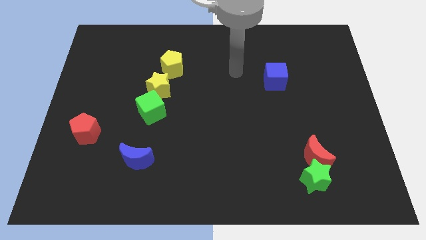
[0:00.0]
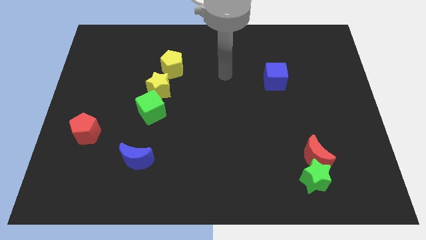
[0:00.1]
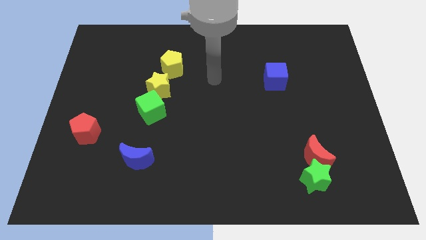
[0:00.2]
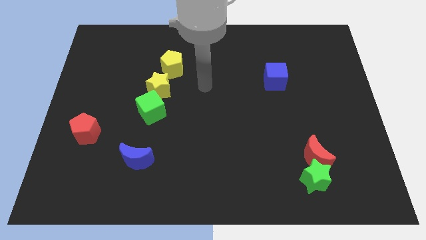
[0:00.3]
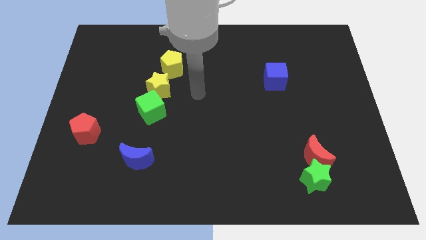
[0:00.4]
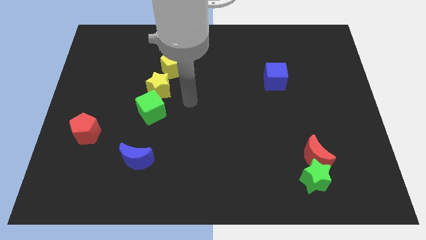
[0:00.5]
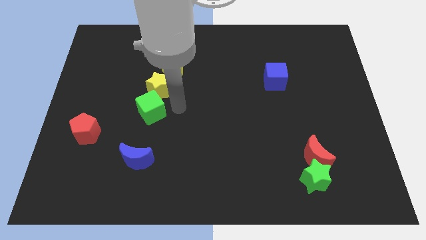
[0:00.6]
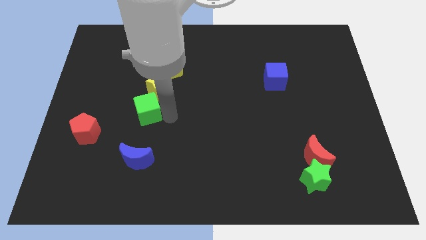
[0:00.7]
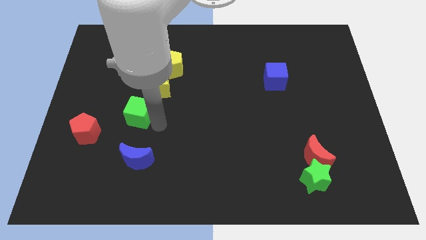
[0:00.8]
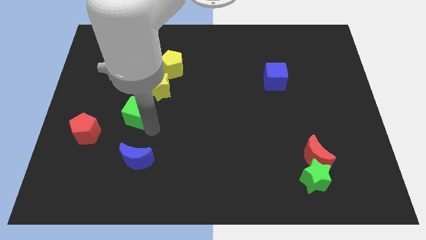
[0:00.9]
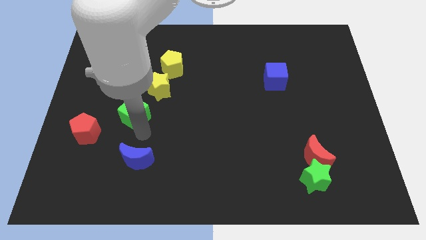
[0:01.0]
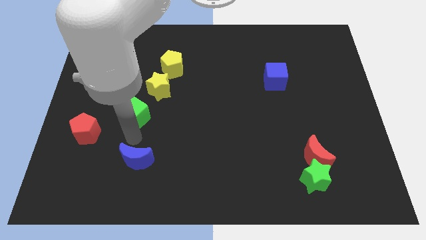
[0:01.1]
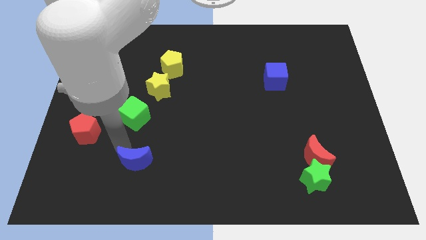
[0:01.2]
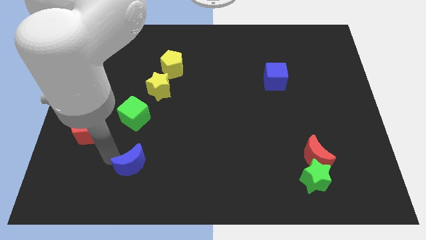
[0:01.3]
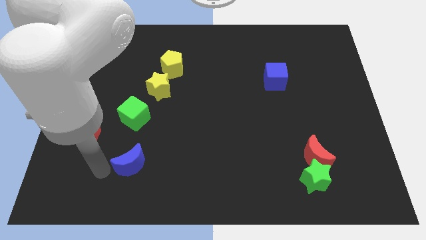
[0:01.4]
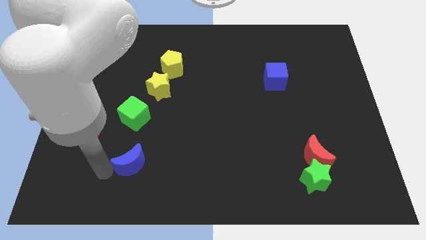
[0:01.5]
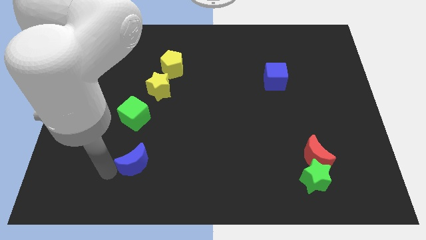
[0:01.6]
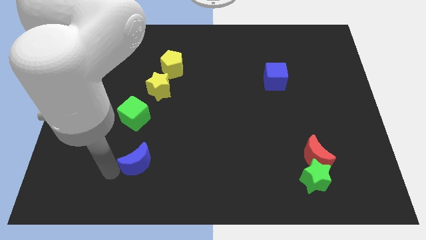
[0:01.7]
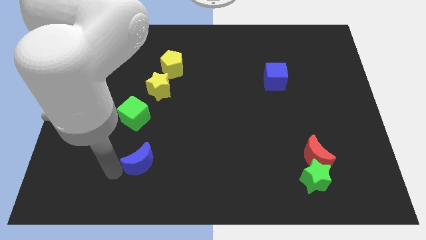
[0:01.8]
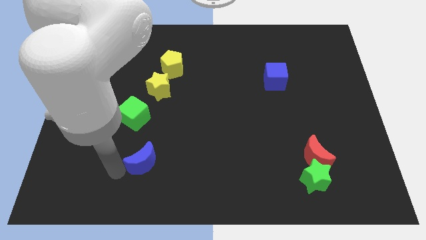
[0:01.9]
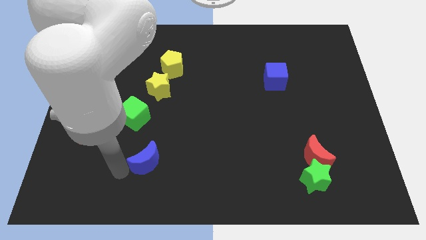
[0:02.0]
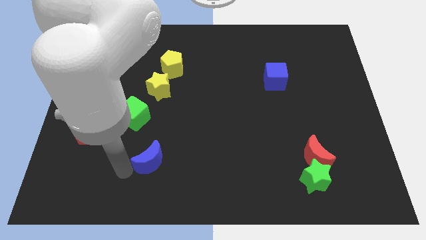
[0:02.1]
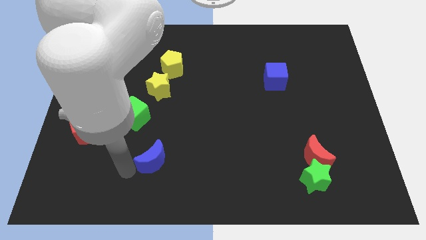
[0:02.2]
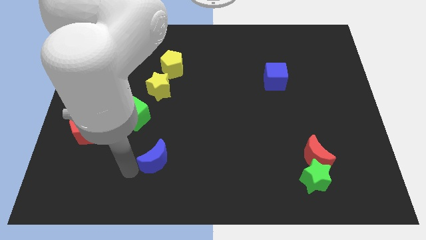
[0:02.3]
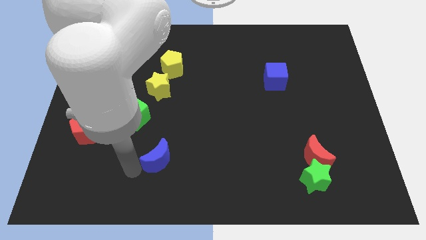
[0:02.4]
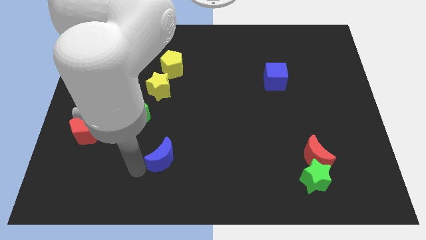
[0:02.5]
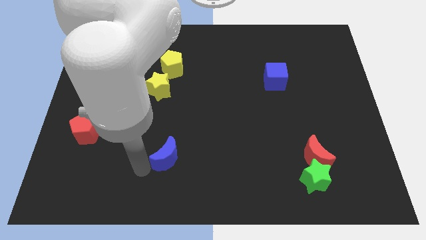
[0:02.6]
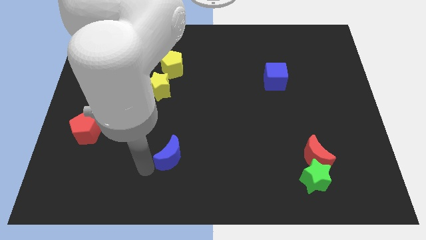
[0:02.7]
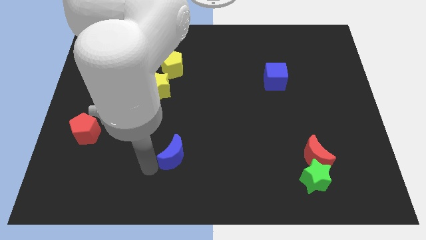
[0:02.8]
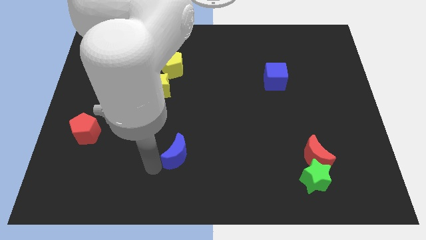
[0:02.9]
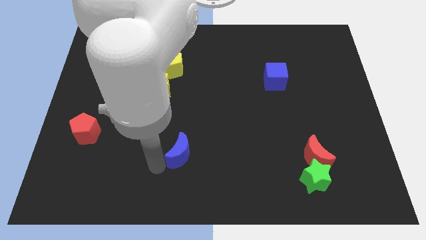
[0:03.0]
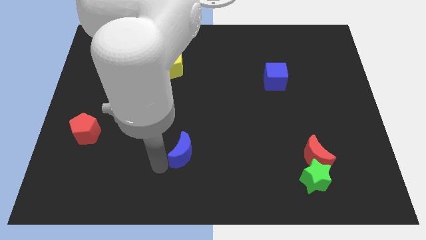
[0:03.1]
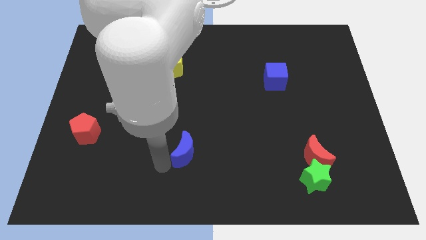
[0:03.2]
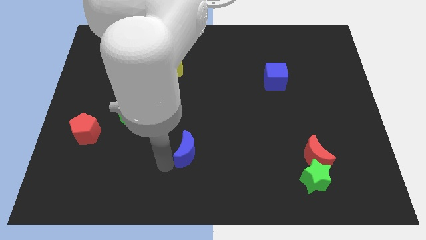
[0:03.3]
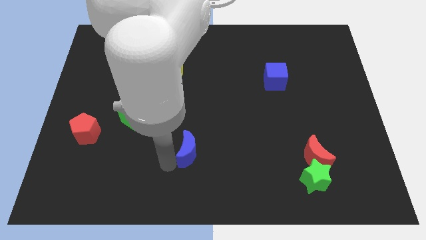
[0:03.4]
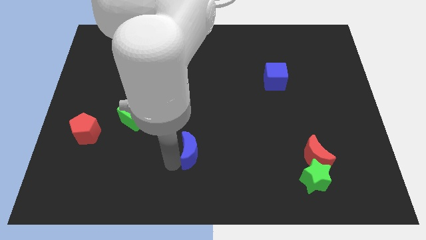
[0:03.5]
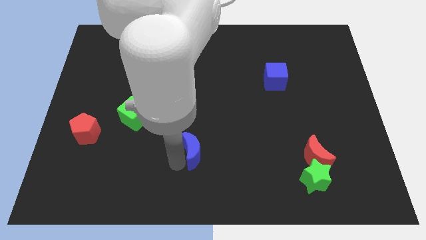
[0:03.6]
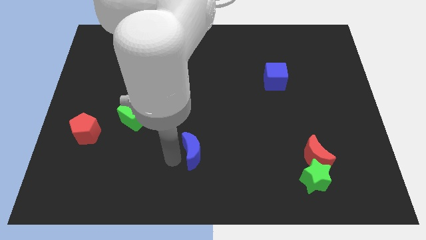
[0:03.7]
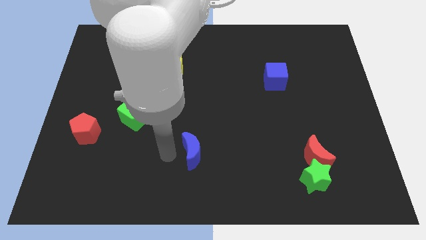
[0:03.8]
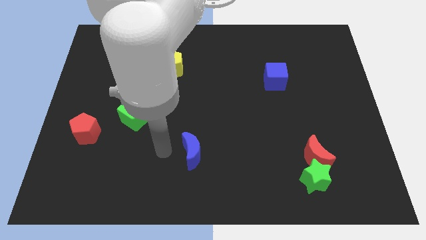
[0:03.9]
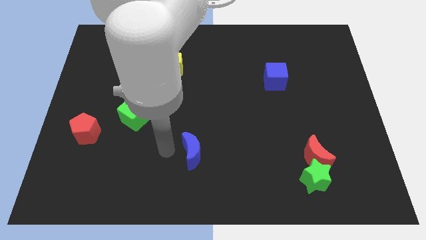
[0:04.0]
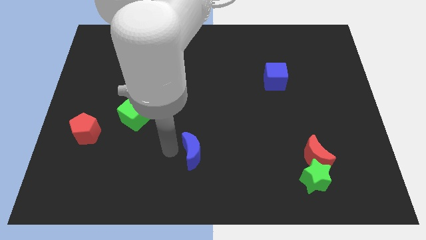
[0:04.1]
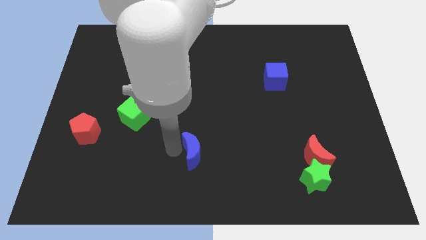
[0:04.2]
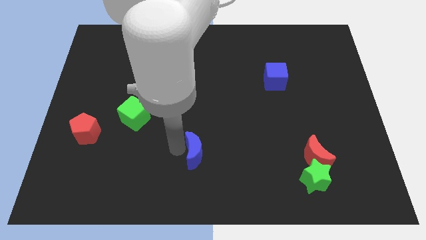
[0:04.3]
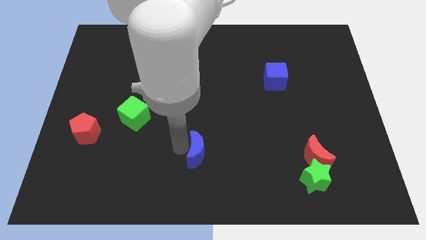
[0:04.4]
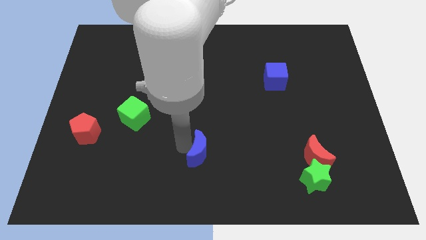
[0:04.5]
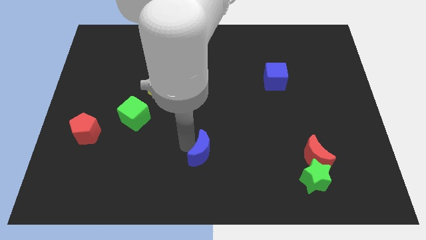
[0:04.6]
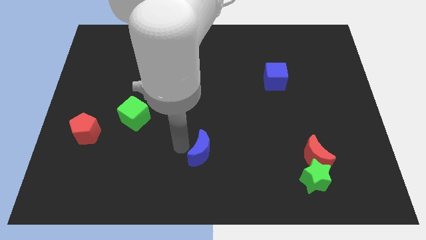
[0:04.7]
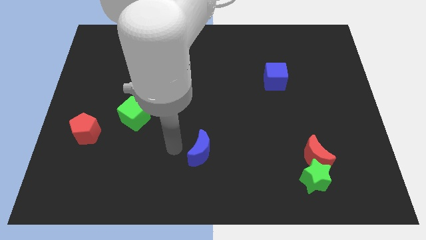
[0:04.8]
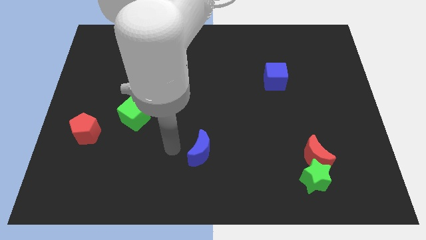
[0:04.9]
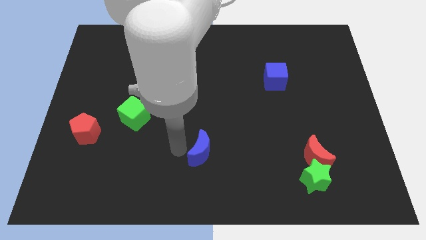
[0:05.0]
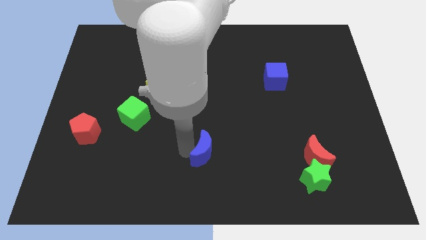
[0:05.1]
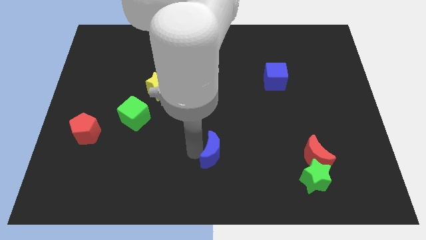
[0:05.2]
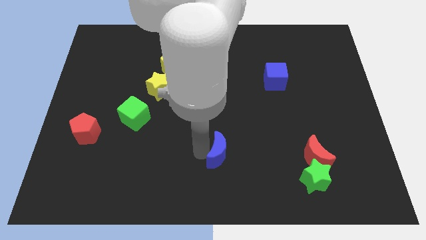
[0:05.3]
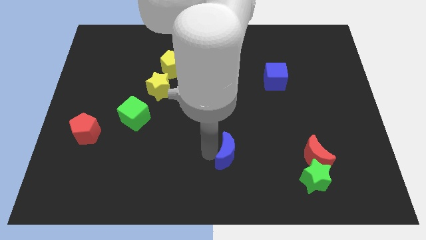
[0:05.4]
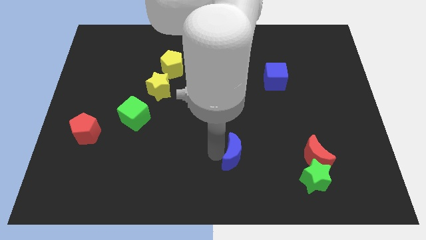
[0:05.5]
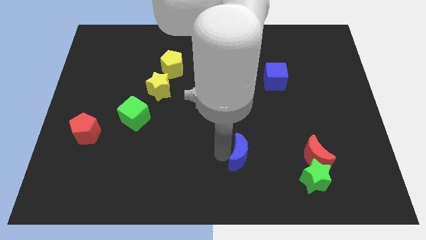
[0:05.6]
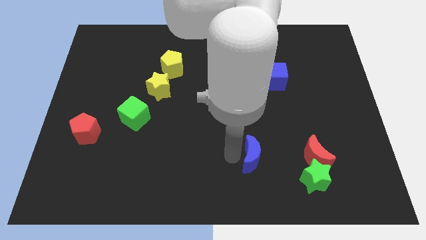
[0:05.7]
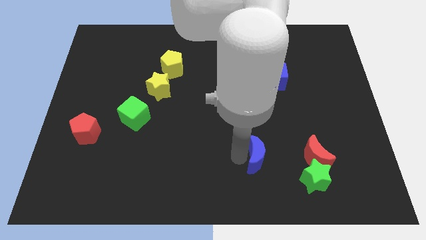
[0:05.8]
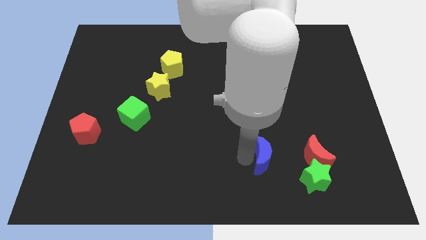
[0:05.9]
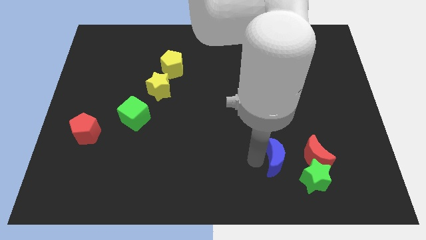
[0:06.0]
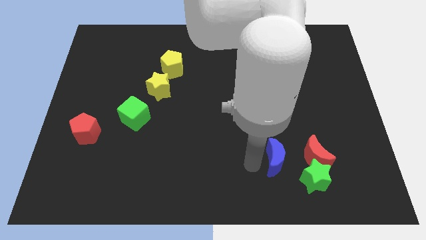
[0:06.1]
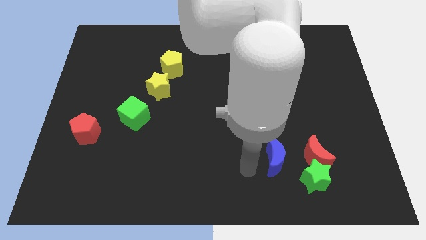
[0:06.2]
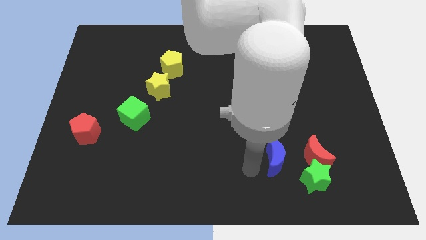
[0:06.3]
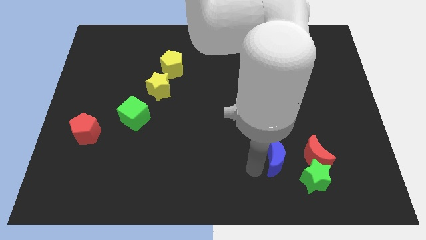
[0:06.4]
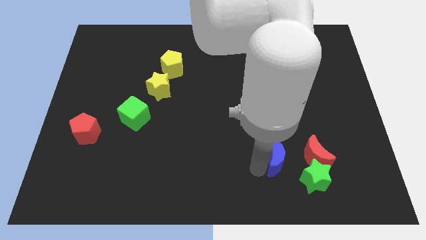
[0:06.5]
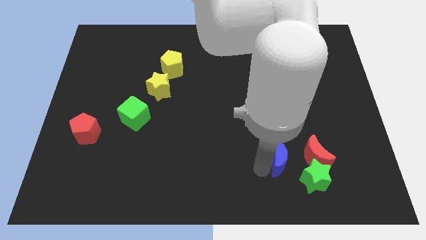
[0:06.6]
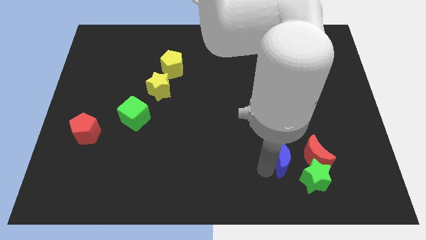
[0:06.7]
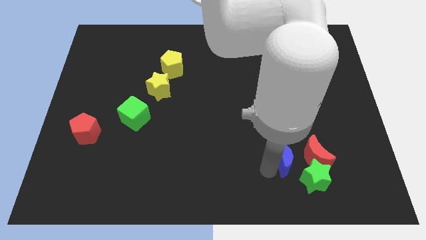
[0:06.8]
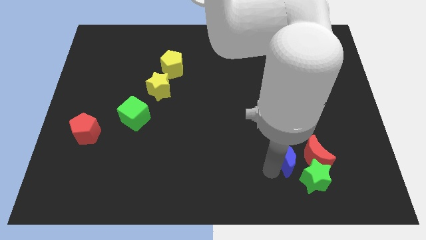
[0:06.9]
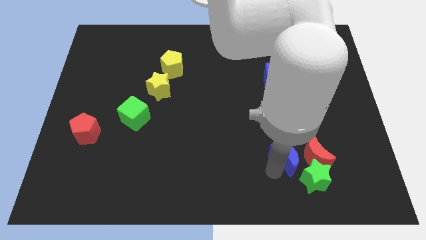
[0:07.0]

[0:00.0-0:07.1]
push the blue moon close to the red moon

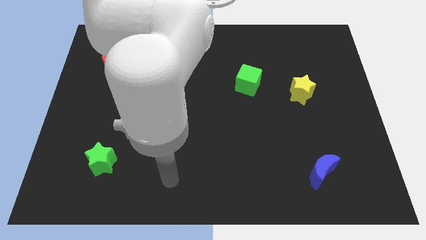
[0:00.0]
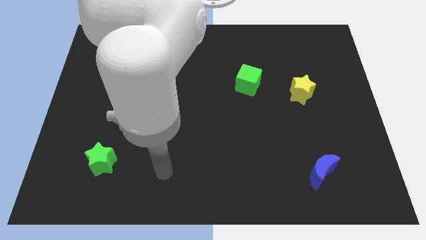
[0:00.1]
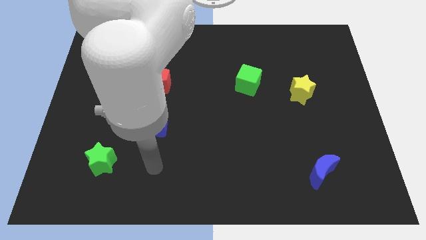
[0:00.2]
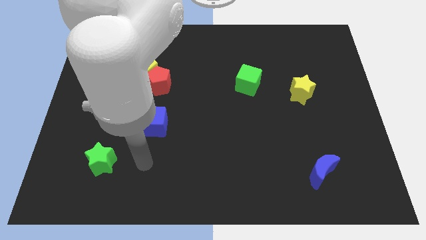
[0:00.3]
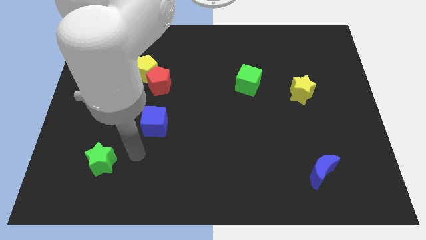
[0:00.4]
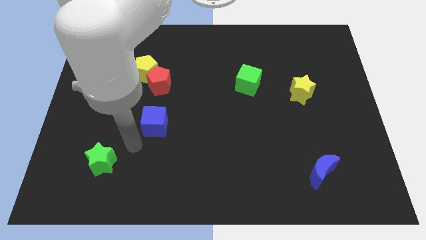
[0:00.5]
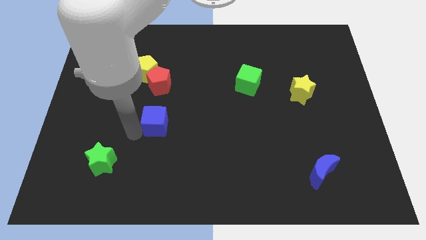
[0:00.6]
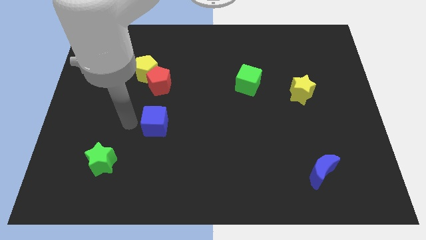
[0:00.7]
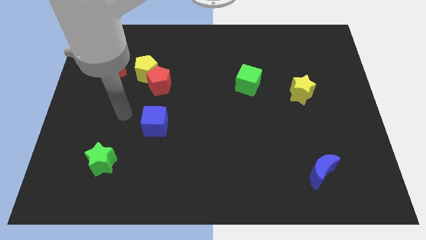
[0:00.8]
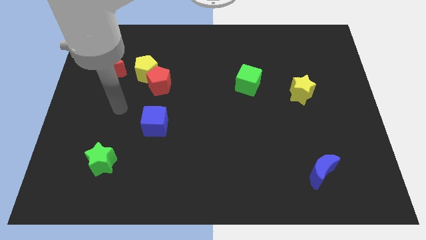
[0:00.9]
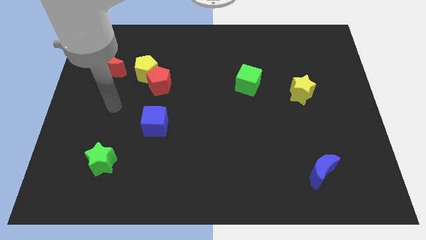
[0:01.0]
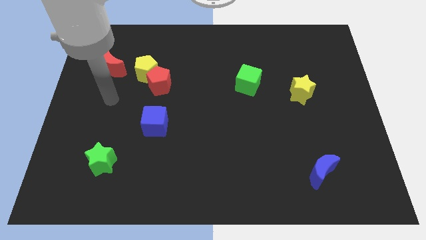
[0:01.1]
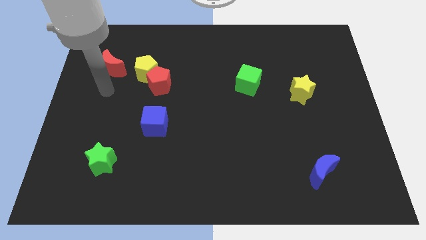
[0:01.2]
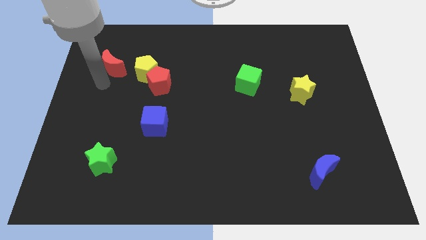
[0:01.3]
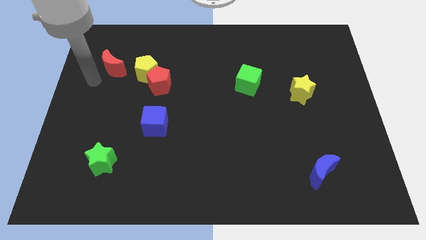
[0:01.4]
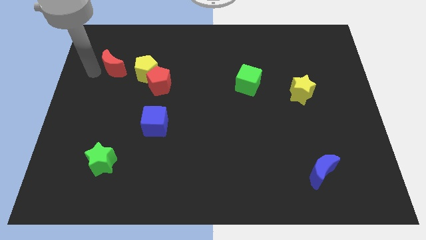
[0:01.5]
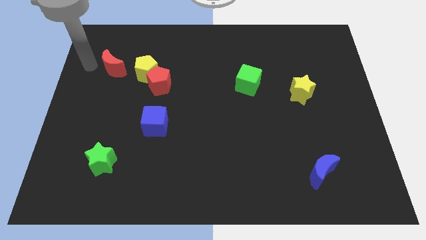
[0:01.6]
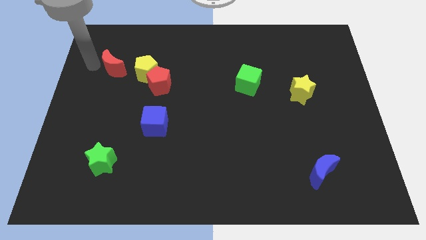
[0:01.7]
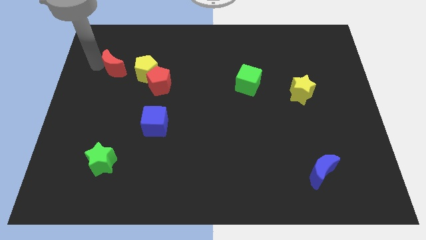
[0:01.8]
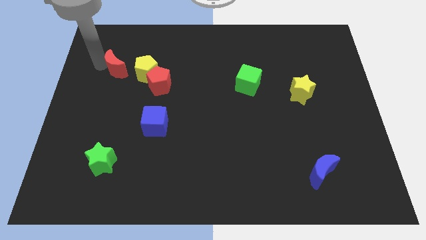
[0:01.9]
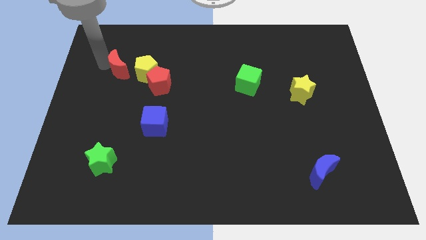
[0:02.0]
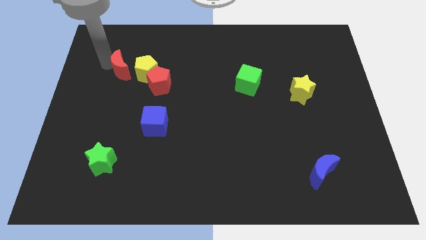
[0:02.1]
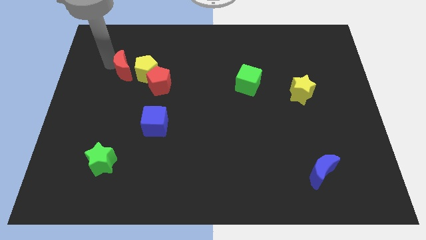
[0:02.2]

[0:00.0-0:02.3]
move the red moon towards the yellow pentagon
